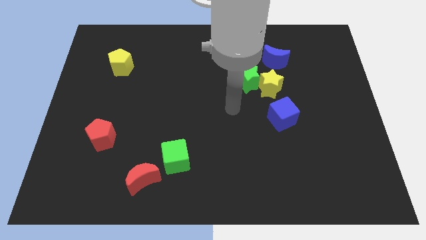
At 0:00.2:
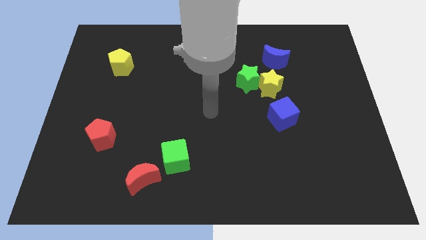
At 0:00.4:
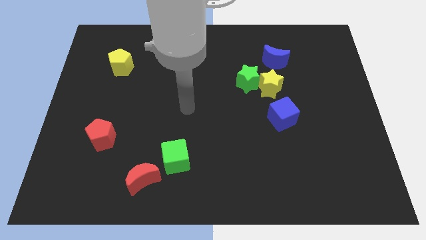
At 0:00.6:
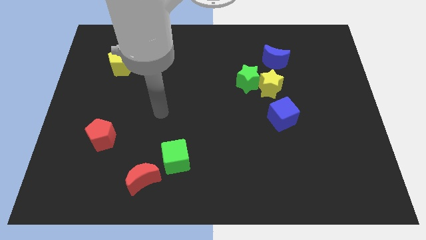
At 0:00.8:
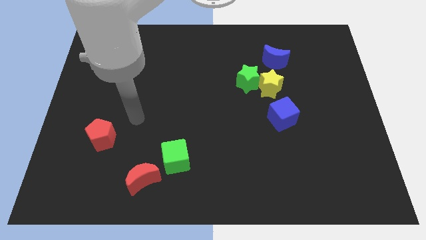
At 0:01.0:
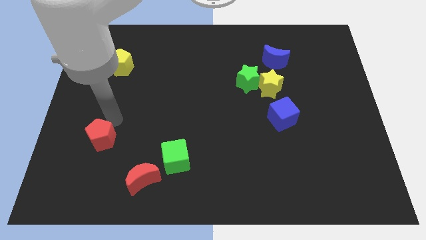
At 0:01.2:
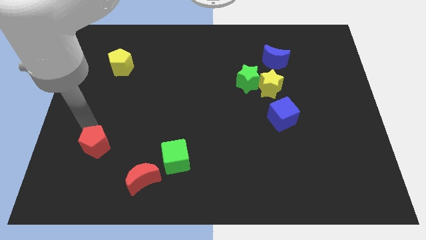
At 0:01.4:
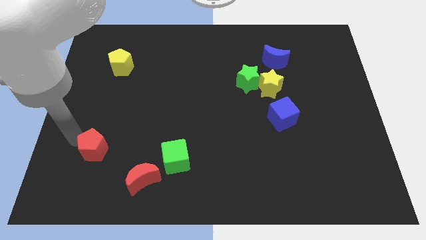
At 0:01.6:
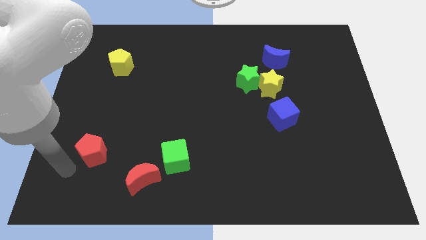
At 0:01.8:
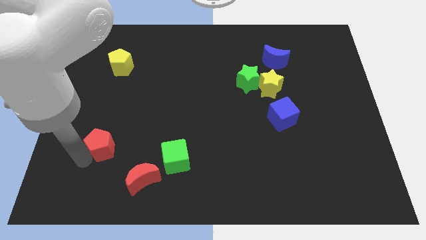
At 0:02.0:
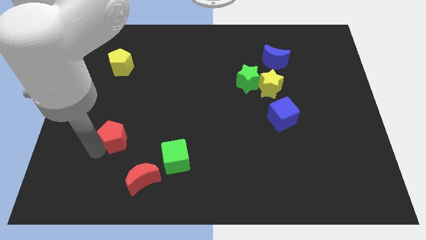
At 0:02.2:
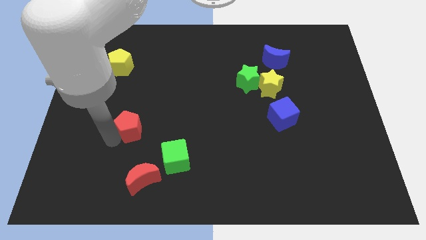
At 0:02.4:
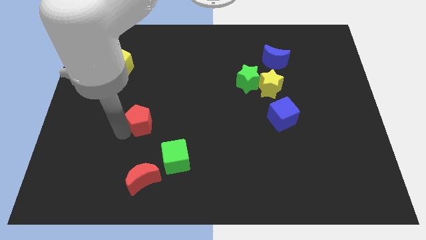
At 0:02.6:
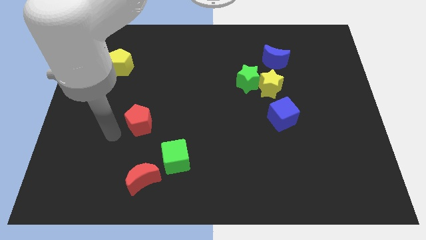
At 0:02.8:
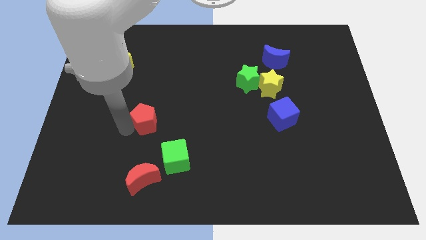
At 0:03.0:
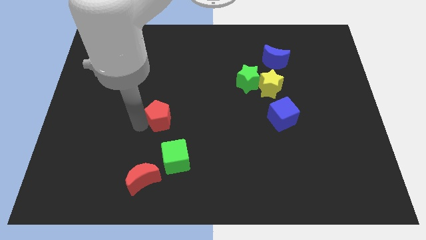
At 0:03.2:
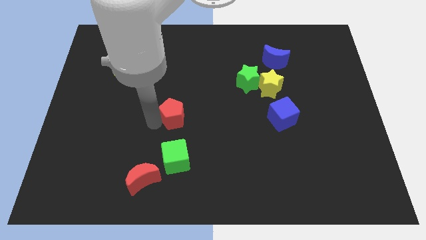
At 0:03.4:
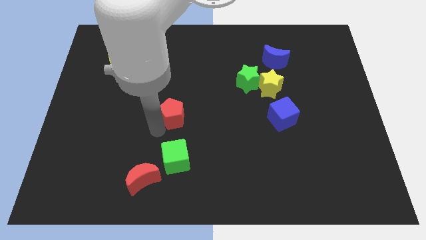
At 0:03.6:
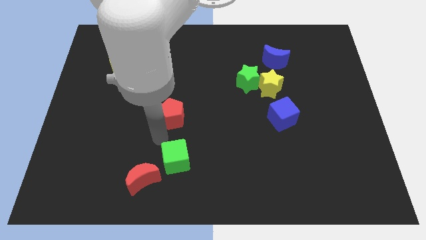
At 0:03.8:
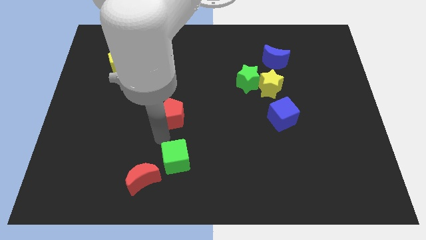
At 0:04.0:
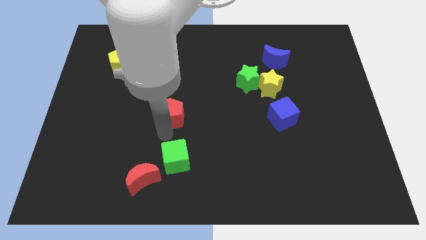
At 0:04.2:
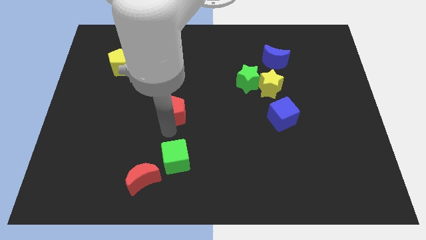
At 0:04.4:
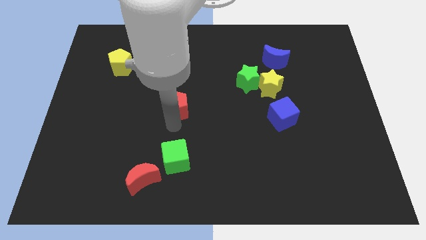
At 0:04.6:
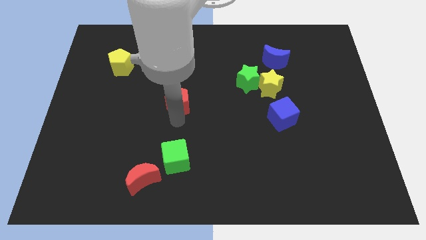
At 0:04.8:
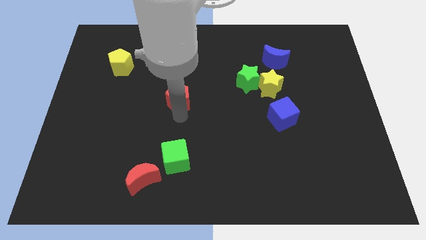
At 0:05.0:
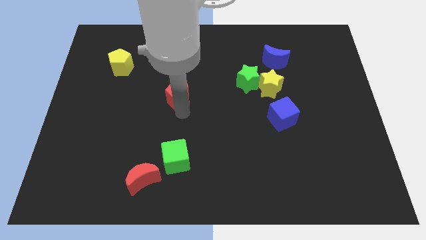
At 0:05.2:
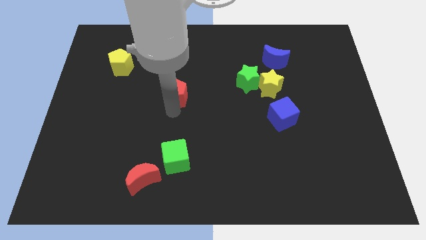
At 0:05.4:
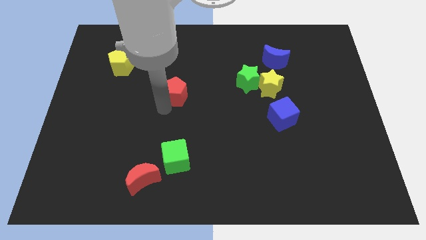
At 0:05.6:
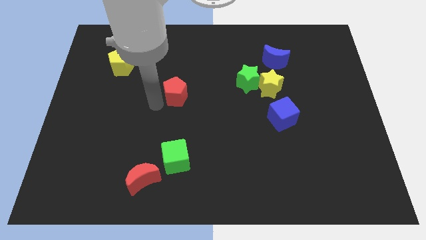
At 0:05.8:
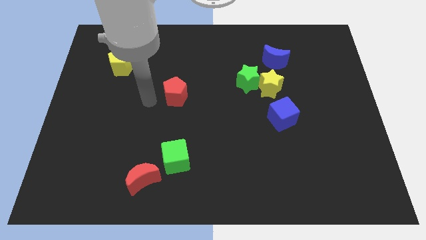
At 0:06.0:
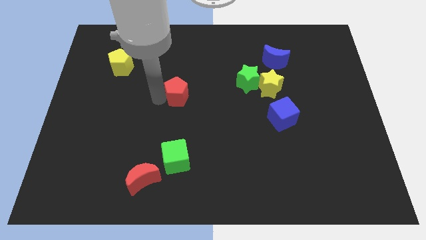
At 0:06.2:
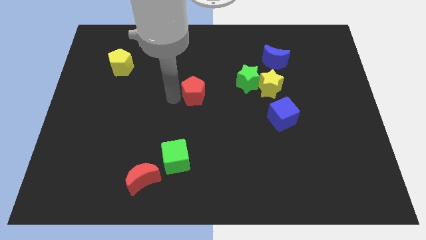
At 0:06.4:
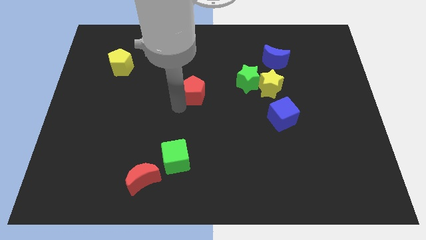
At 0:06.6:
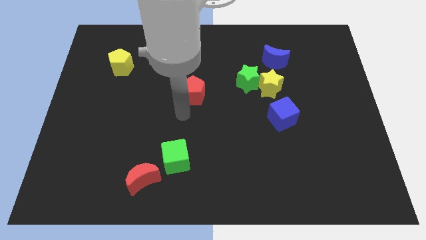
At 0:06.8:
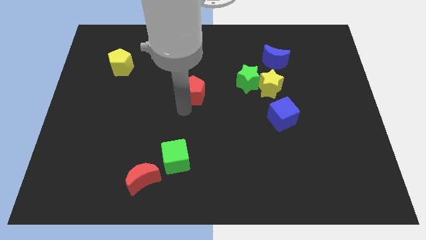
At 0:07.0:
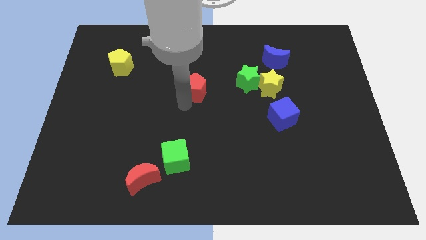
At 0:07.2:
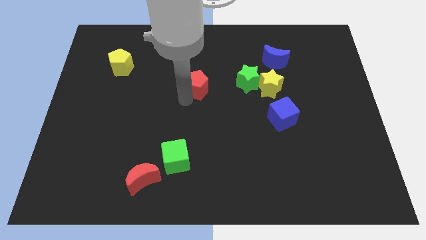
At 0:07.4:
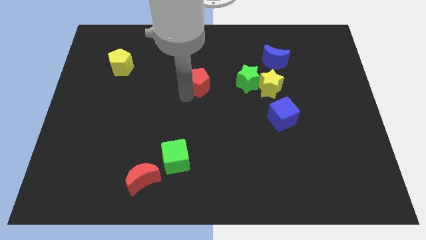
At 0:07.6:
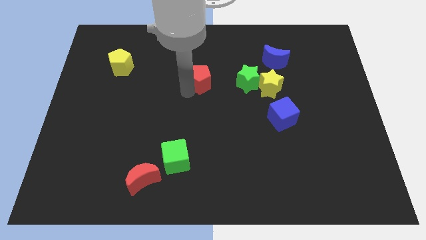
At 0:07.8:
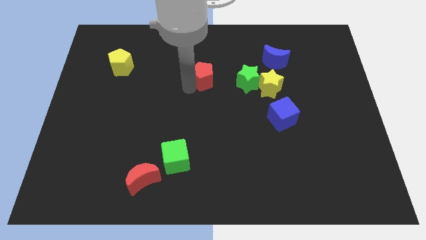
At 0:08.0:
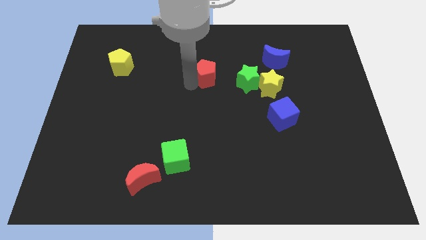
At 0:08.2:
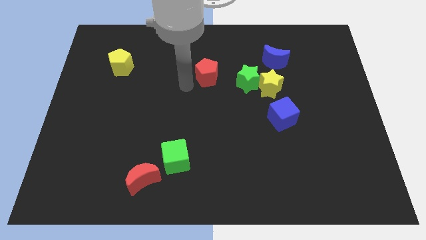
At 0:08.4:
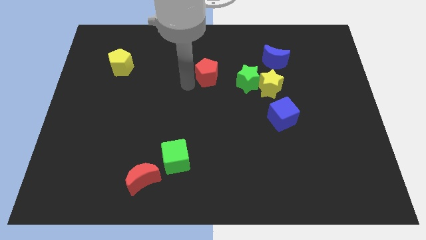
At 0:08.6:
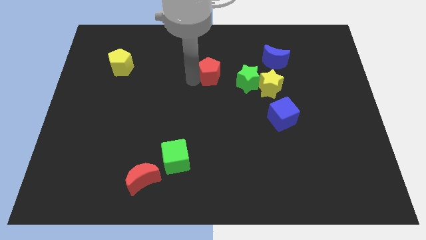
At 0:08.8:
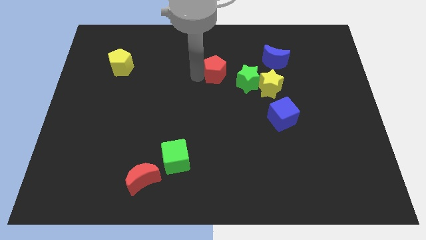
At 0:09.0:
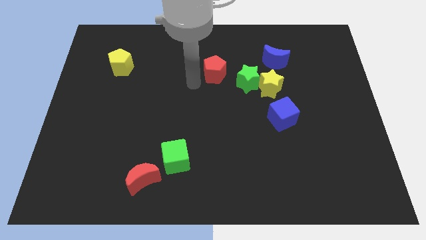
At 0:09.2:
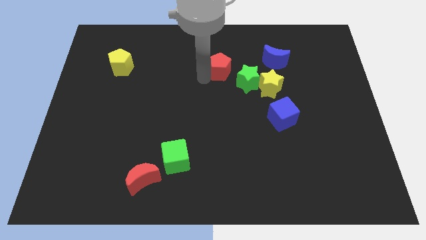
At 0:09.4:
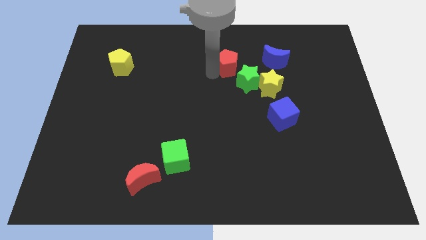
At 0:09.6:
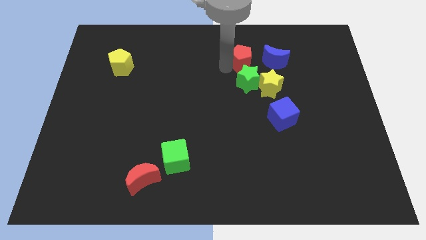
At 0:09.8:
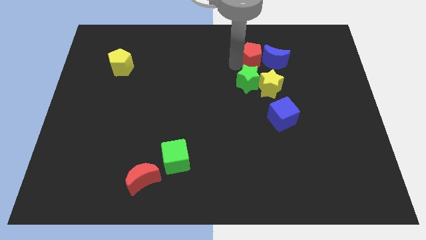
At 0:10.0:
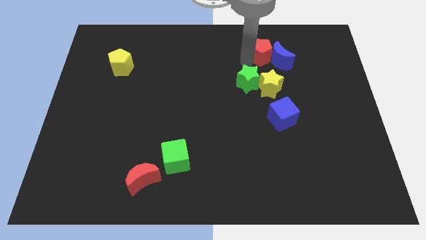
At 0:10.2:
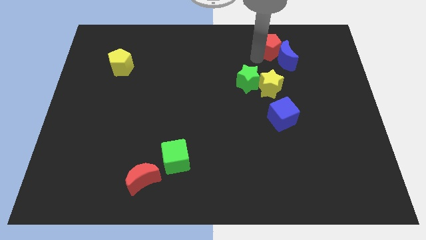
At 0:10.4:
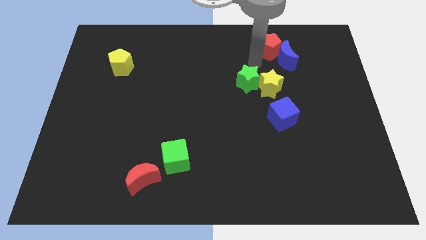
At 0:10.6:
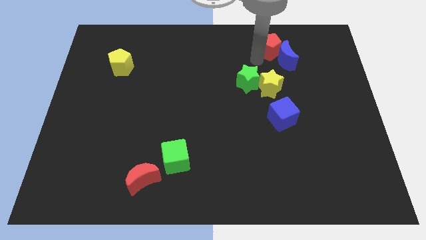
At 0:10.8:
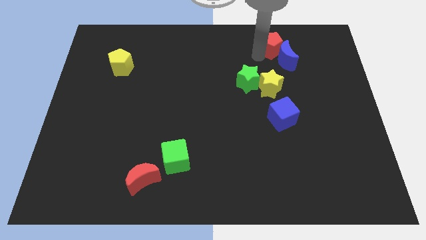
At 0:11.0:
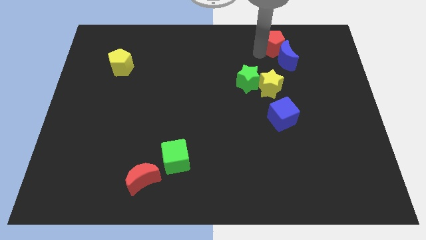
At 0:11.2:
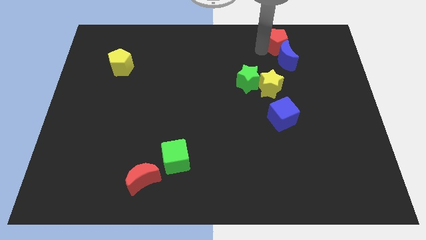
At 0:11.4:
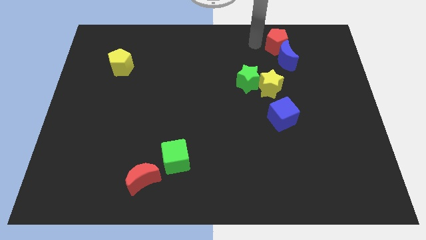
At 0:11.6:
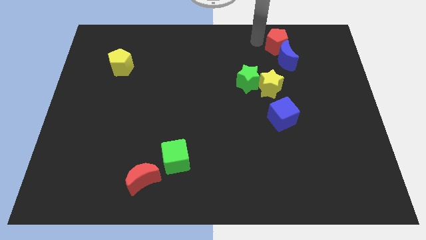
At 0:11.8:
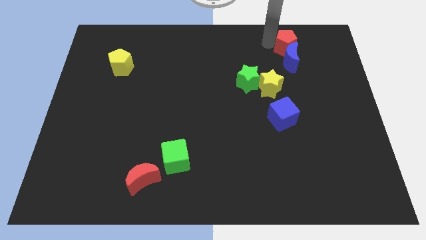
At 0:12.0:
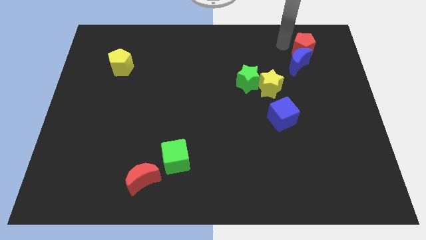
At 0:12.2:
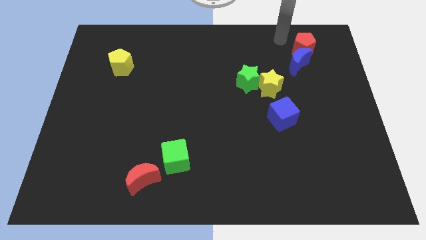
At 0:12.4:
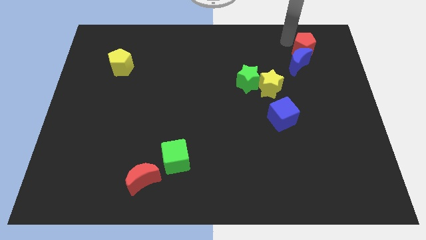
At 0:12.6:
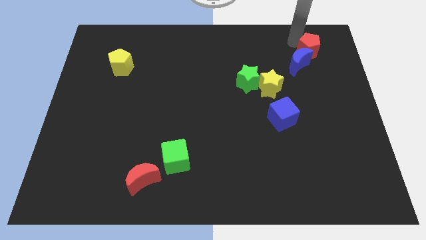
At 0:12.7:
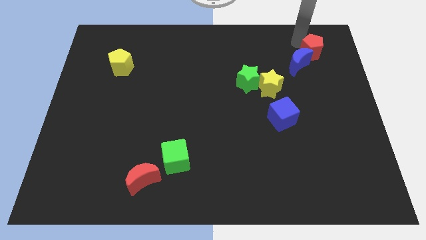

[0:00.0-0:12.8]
move the red pentagon to the right of the blue moon
